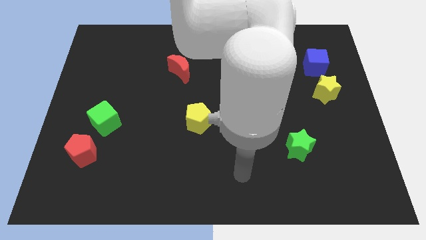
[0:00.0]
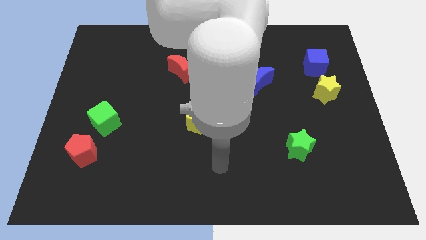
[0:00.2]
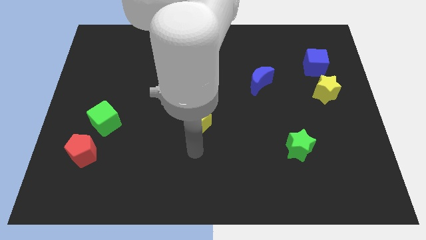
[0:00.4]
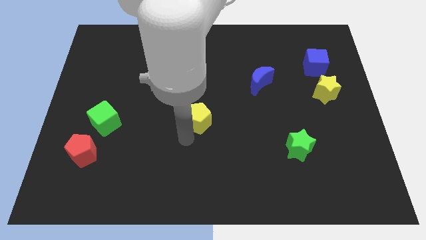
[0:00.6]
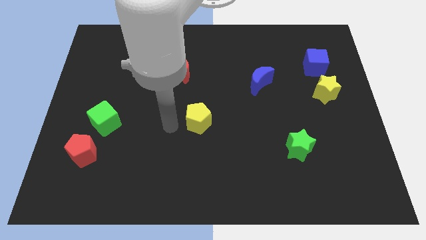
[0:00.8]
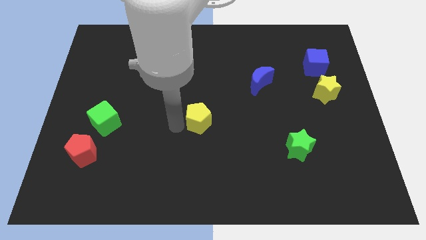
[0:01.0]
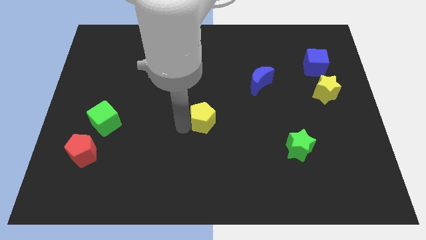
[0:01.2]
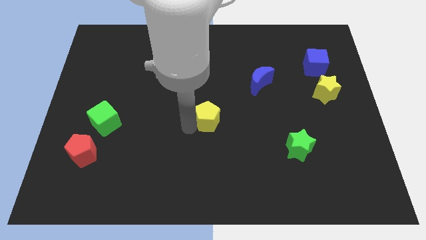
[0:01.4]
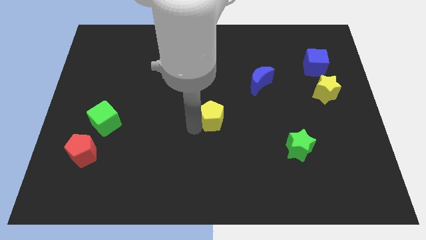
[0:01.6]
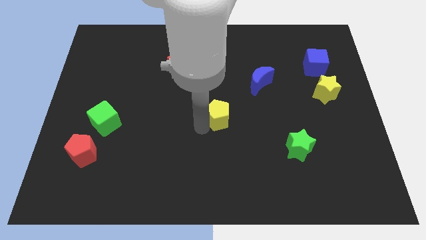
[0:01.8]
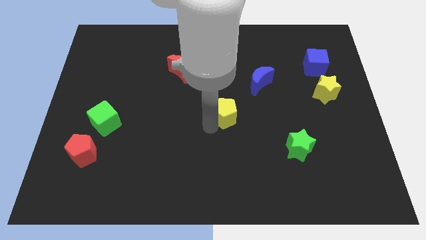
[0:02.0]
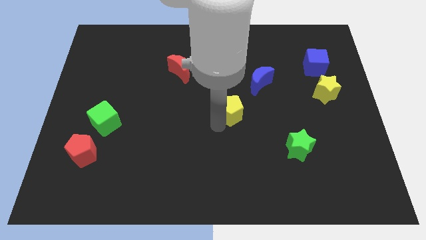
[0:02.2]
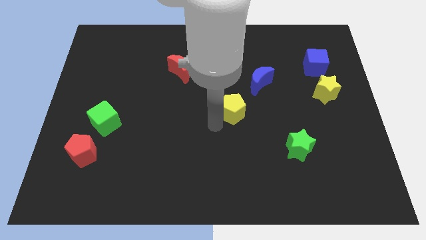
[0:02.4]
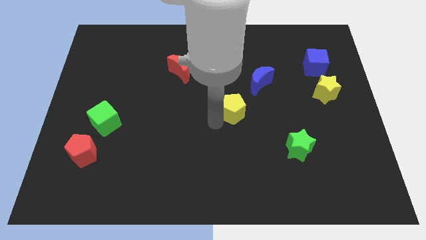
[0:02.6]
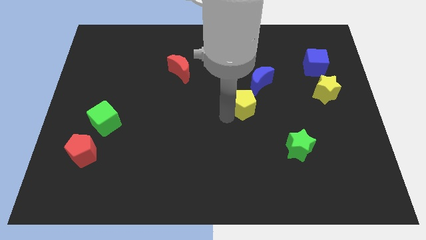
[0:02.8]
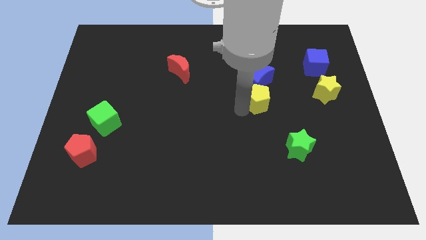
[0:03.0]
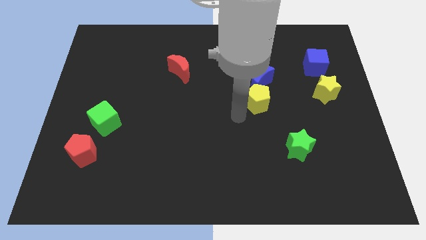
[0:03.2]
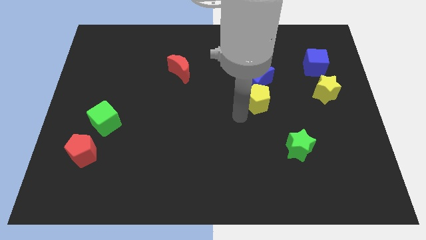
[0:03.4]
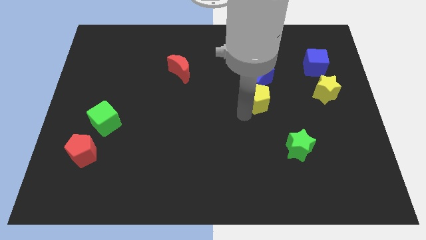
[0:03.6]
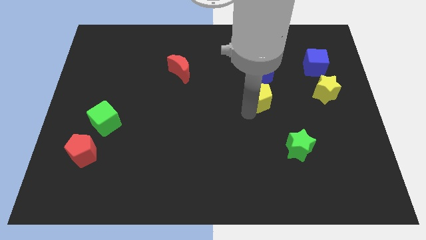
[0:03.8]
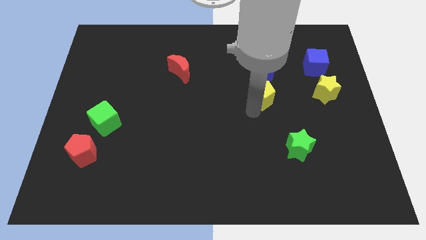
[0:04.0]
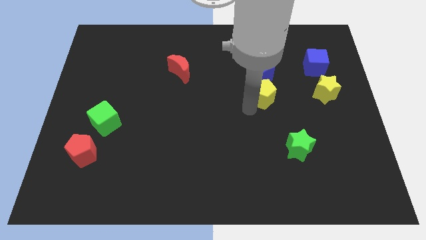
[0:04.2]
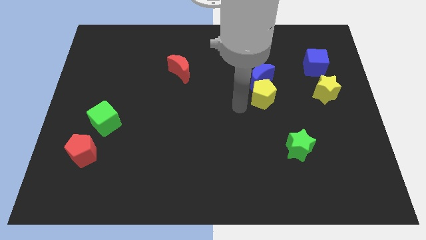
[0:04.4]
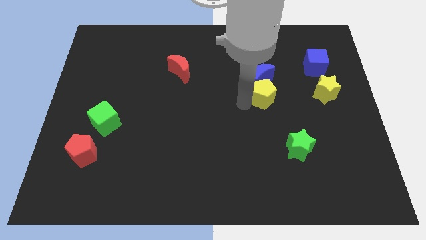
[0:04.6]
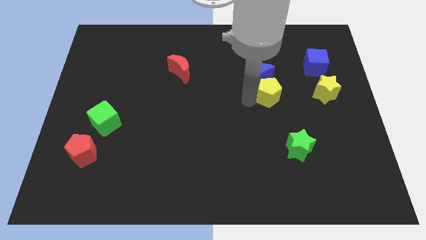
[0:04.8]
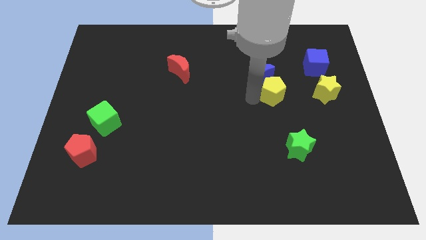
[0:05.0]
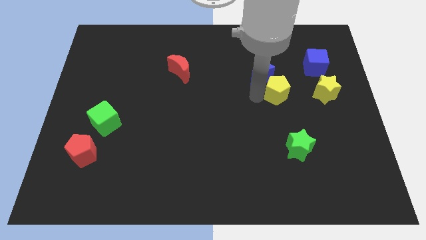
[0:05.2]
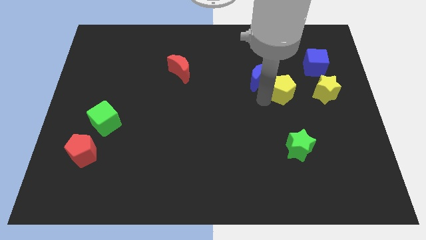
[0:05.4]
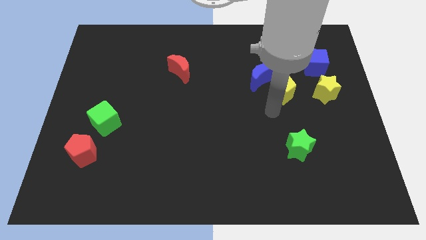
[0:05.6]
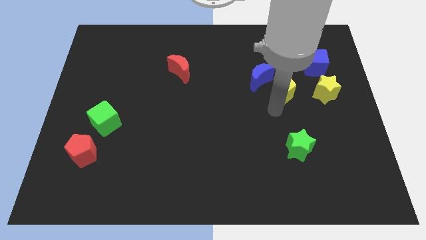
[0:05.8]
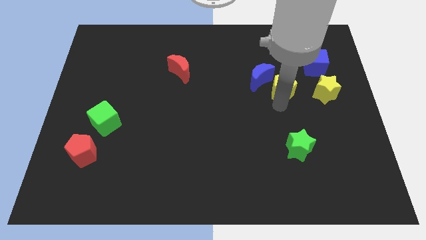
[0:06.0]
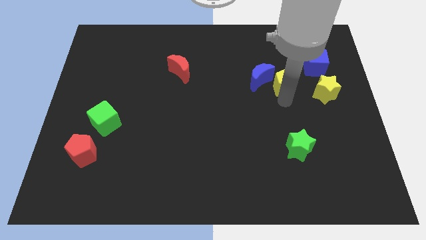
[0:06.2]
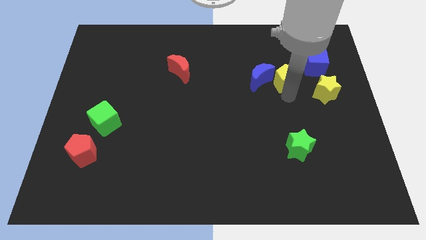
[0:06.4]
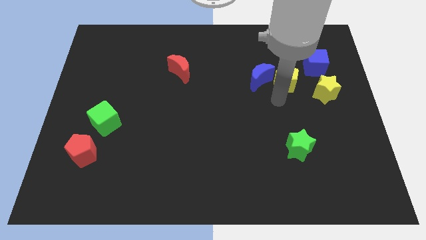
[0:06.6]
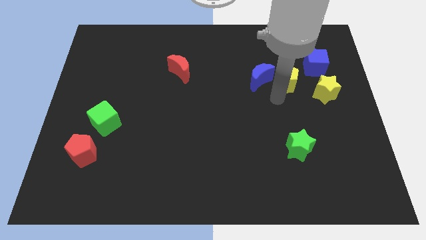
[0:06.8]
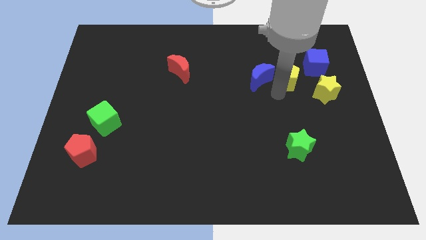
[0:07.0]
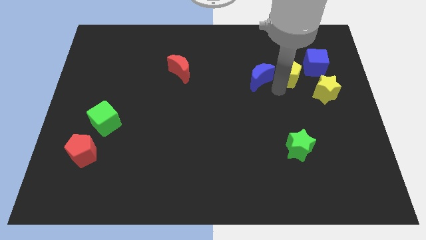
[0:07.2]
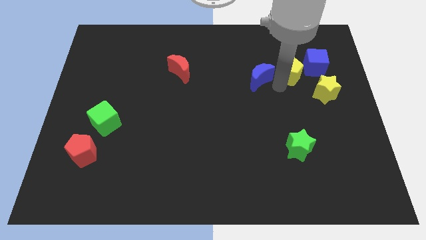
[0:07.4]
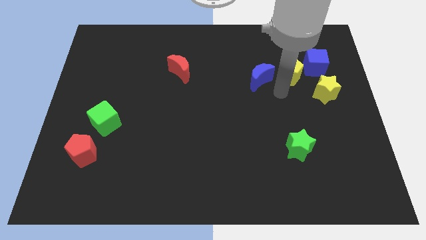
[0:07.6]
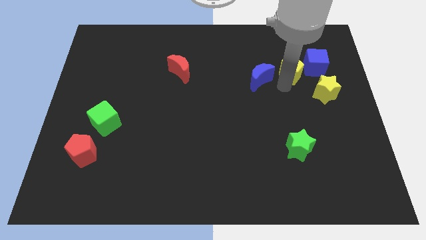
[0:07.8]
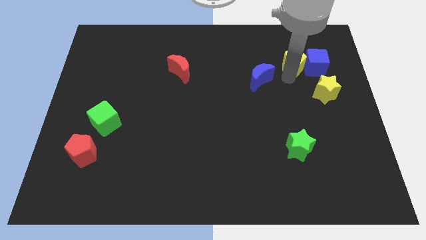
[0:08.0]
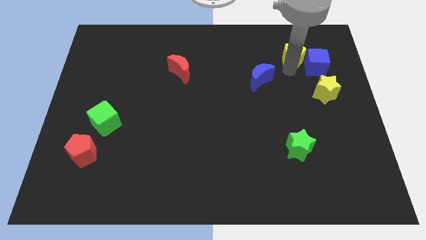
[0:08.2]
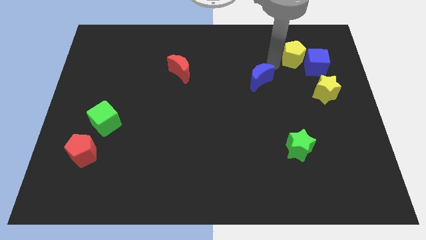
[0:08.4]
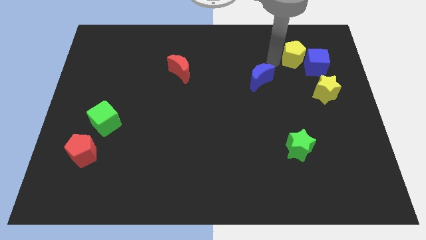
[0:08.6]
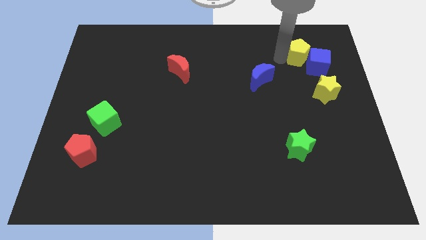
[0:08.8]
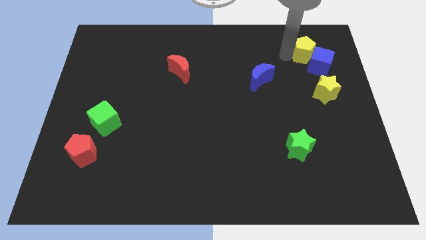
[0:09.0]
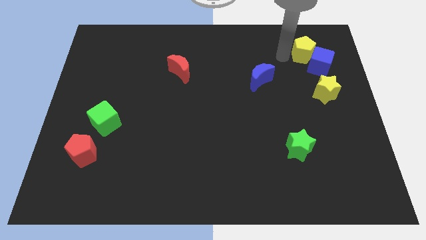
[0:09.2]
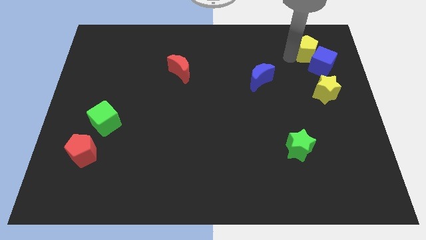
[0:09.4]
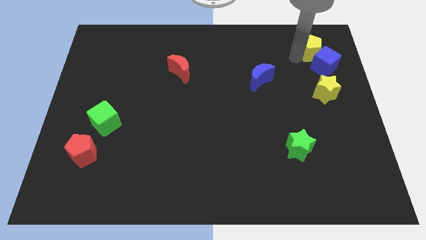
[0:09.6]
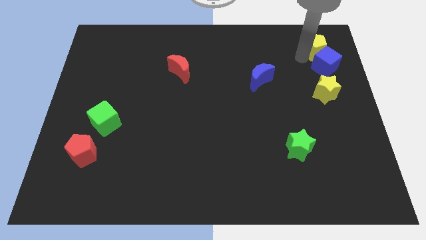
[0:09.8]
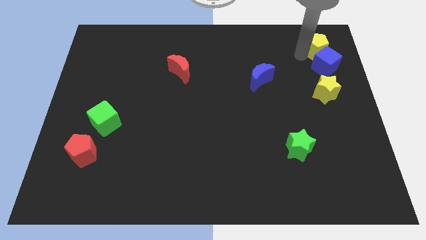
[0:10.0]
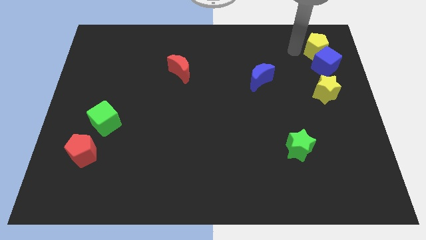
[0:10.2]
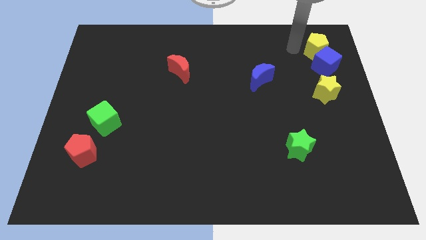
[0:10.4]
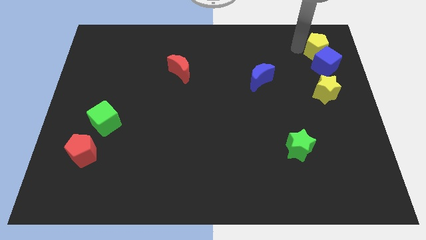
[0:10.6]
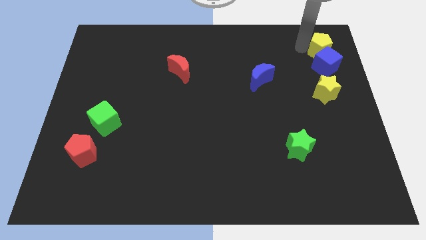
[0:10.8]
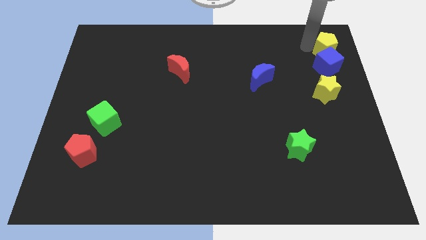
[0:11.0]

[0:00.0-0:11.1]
slide the yellow pentagon to the top right of the board
